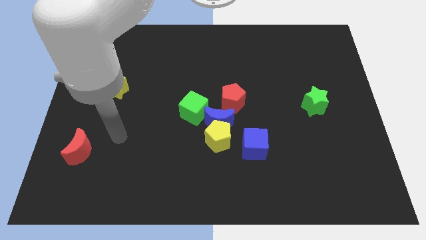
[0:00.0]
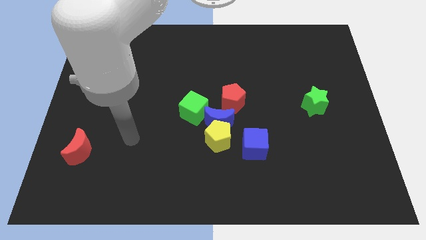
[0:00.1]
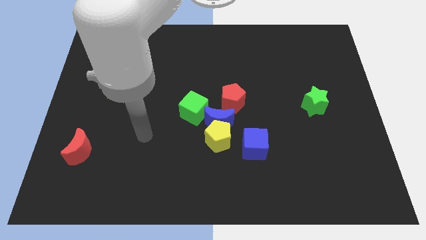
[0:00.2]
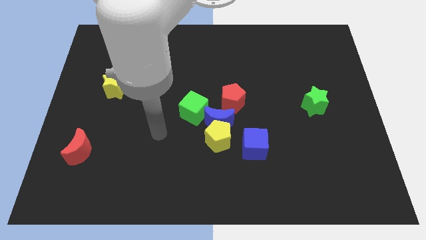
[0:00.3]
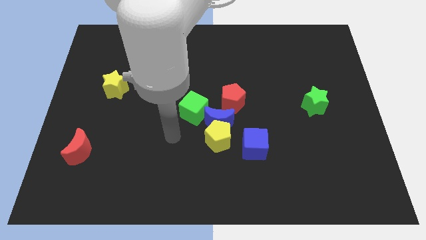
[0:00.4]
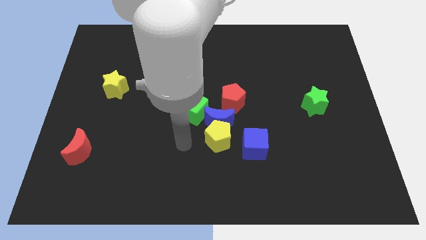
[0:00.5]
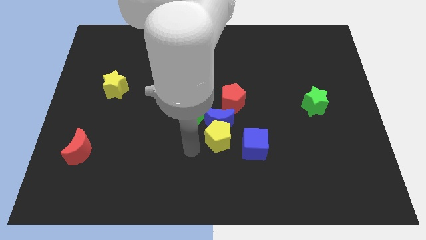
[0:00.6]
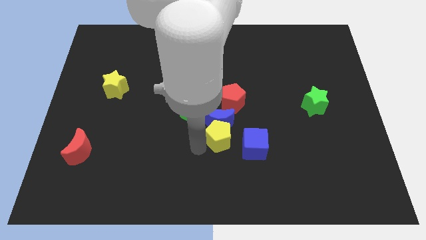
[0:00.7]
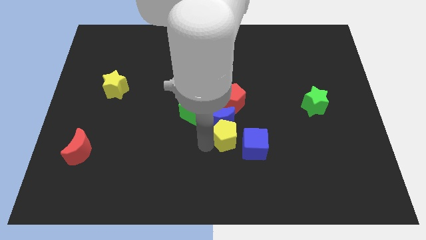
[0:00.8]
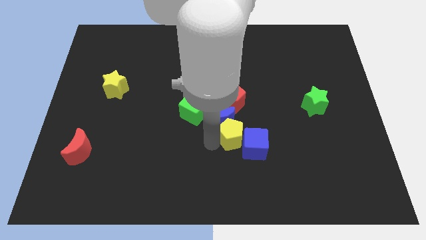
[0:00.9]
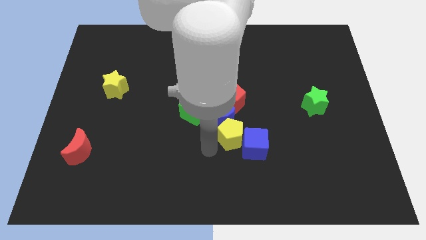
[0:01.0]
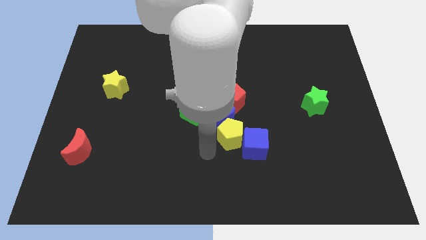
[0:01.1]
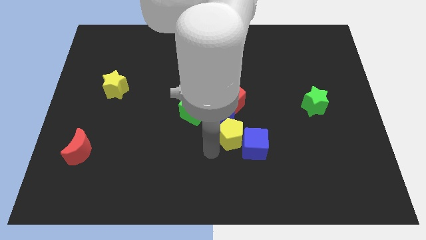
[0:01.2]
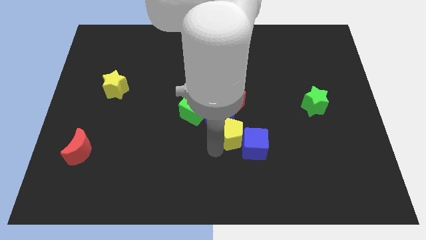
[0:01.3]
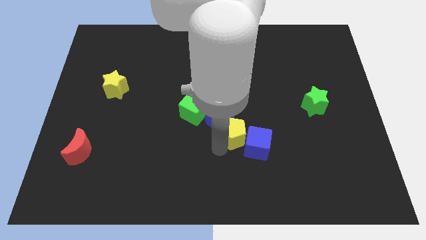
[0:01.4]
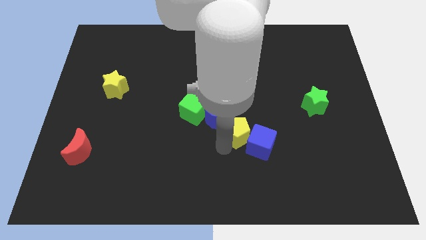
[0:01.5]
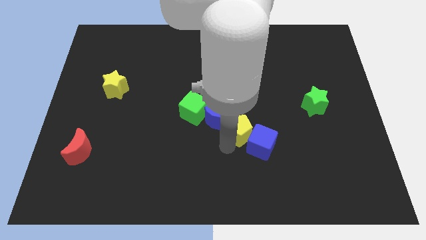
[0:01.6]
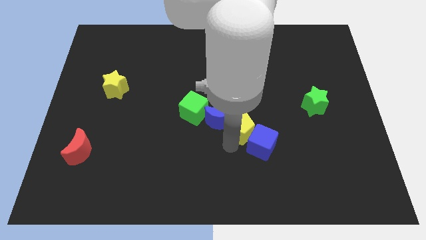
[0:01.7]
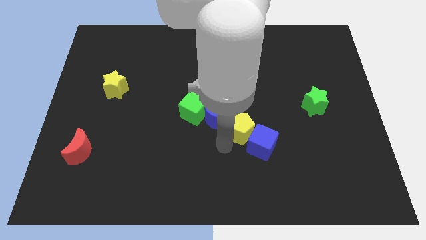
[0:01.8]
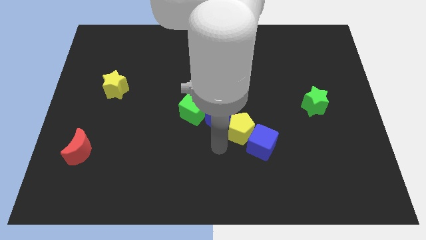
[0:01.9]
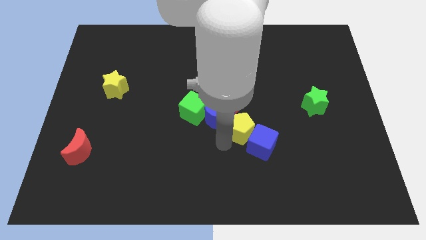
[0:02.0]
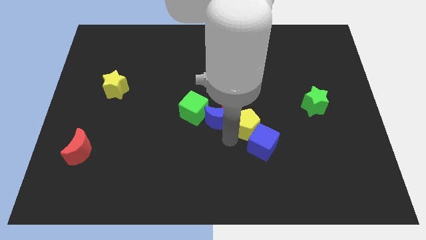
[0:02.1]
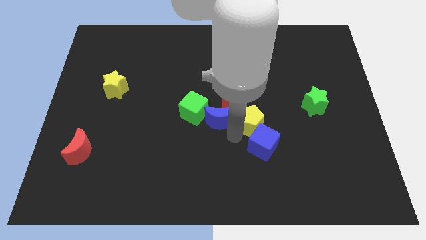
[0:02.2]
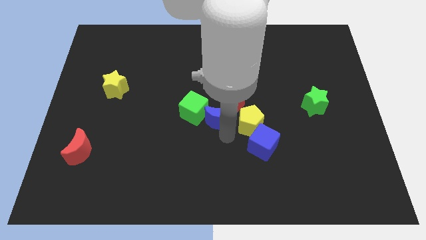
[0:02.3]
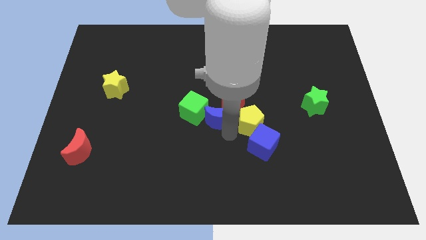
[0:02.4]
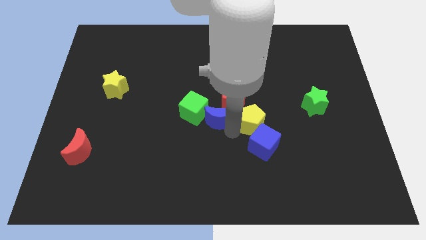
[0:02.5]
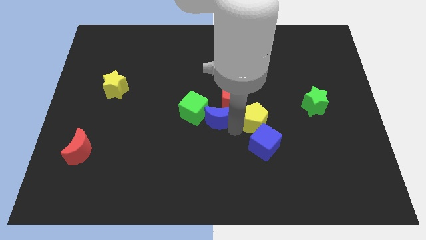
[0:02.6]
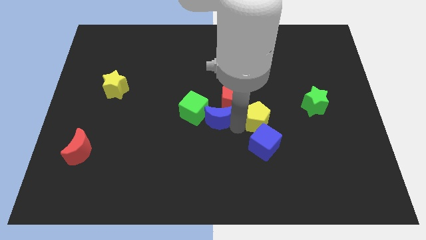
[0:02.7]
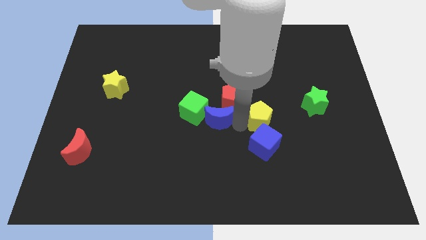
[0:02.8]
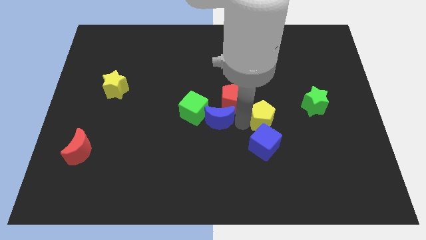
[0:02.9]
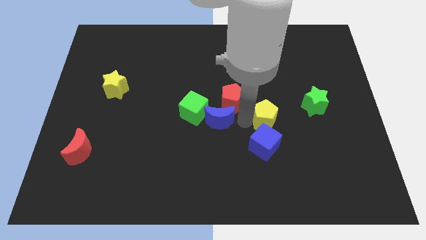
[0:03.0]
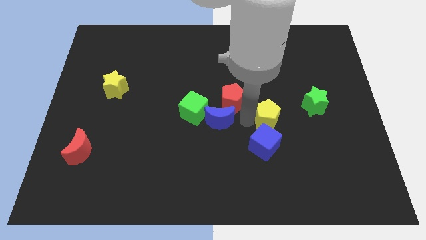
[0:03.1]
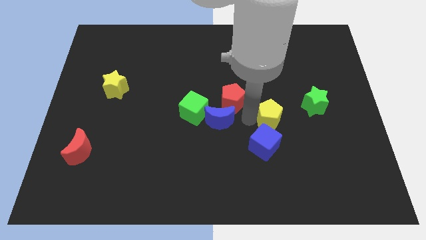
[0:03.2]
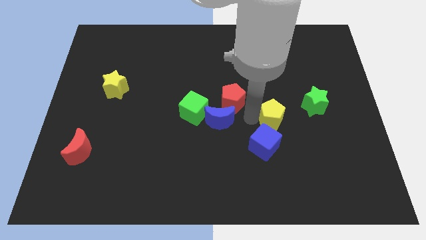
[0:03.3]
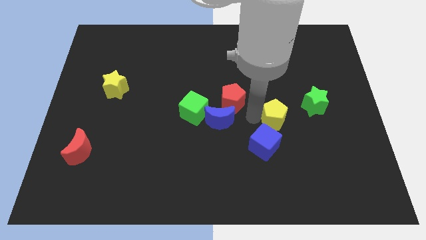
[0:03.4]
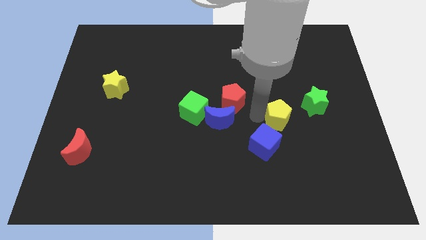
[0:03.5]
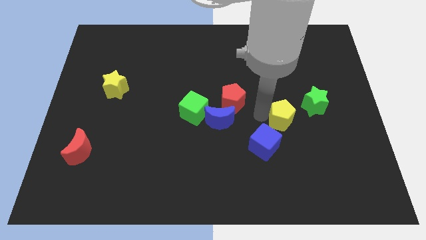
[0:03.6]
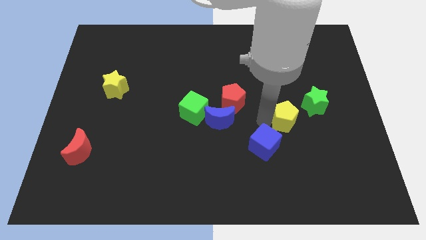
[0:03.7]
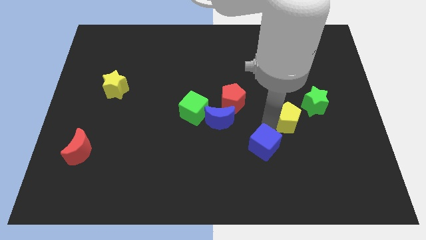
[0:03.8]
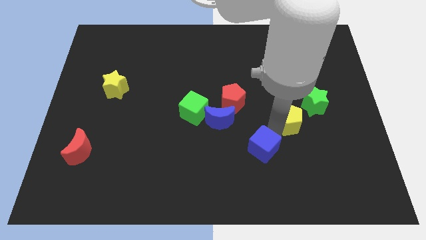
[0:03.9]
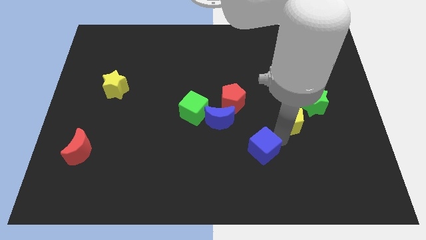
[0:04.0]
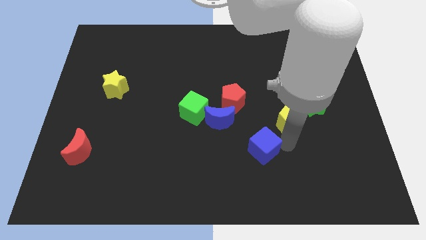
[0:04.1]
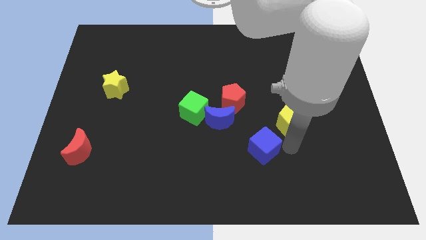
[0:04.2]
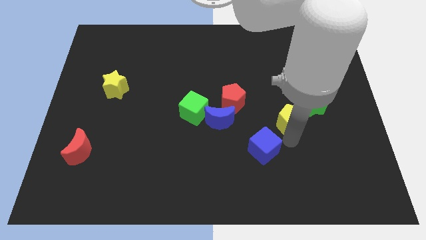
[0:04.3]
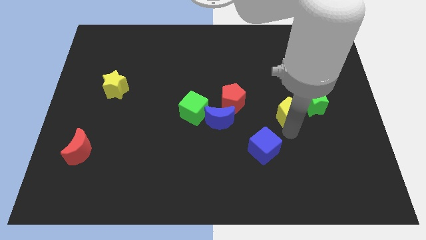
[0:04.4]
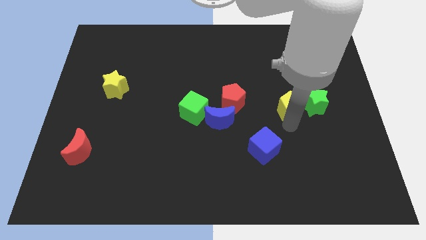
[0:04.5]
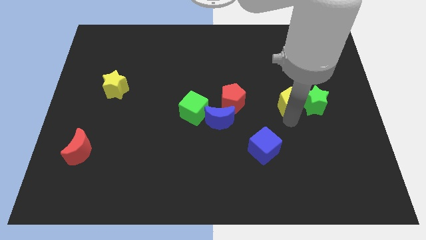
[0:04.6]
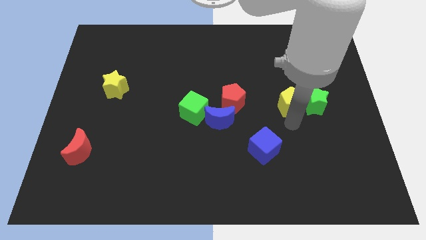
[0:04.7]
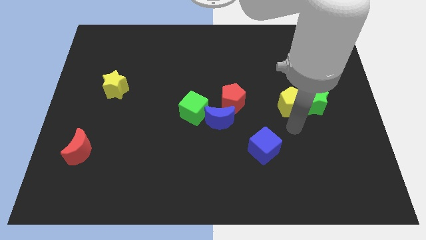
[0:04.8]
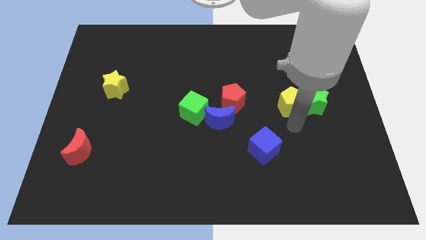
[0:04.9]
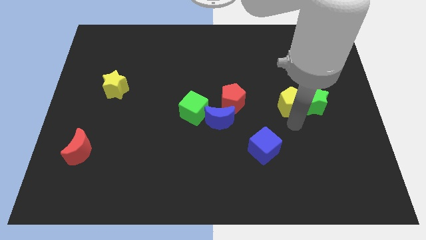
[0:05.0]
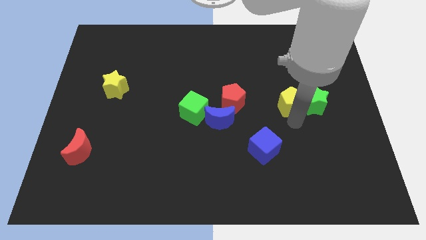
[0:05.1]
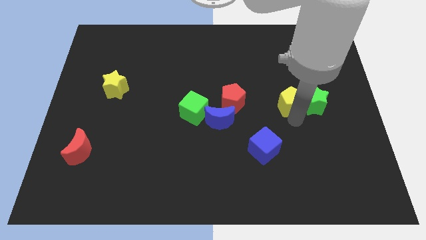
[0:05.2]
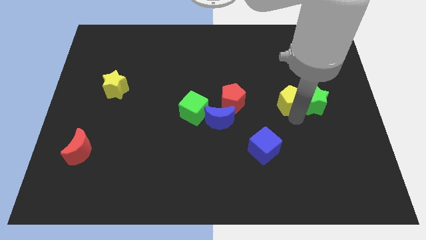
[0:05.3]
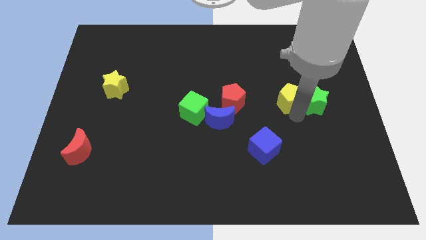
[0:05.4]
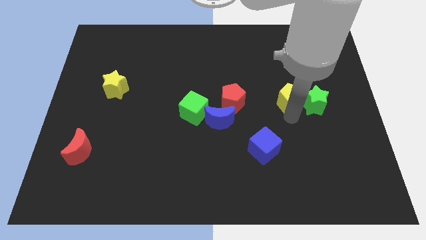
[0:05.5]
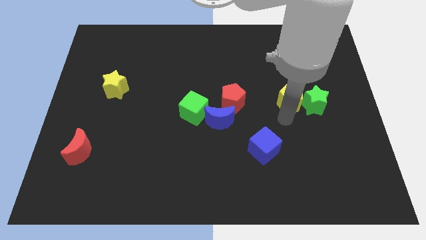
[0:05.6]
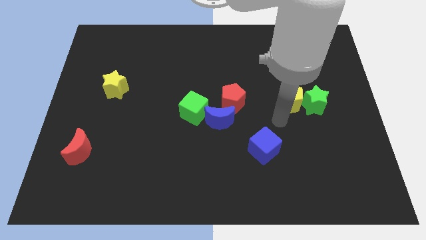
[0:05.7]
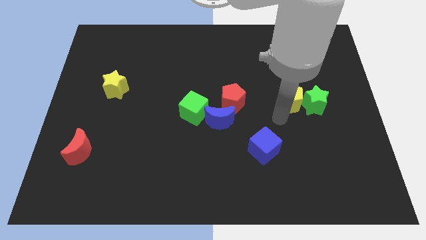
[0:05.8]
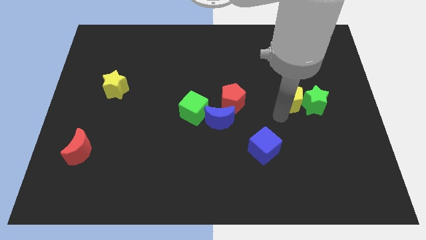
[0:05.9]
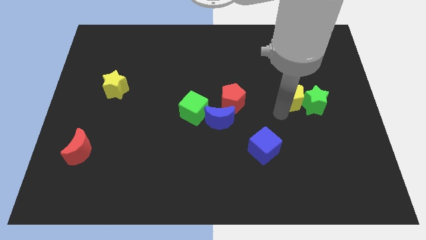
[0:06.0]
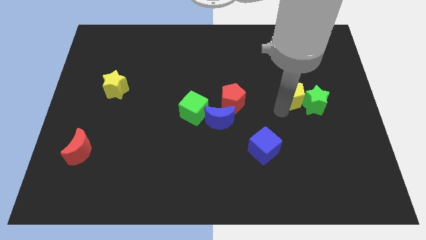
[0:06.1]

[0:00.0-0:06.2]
push the yellow pentagon up and to the right

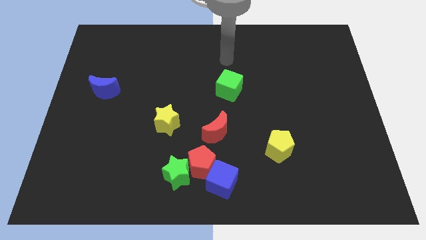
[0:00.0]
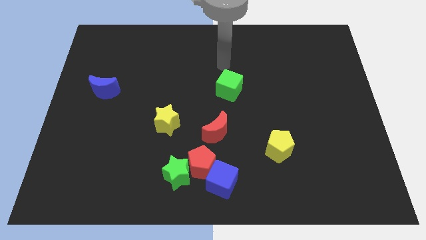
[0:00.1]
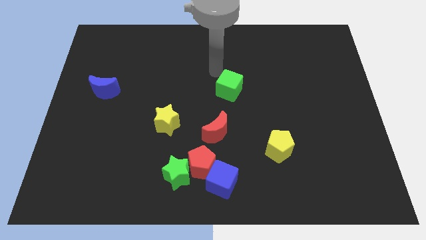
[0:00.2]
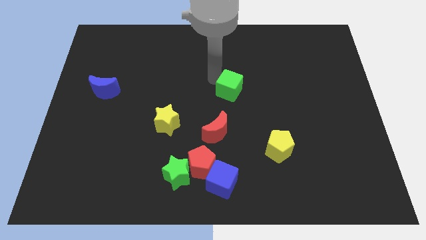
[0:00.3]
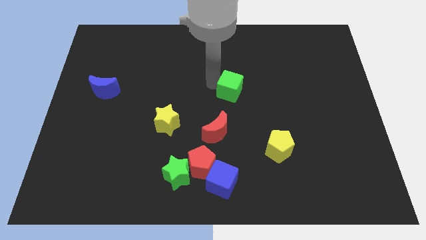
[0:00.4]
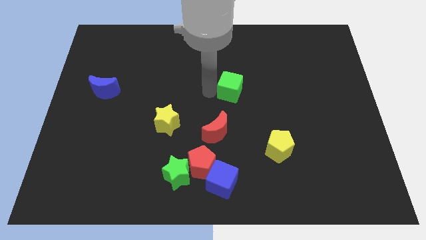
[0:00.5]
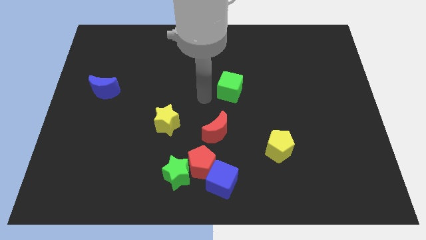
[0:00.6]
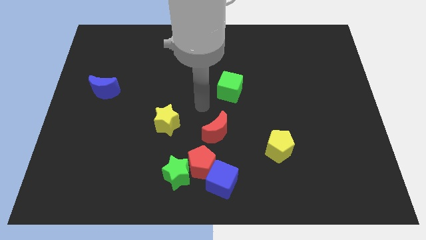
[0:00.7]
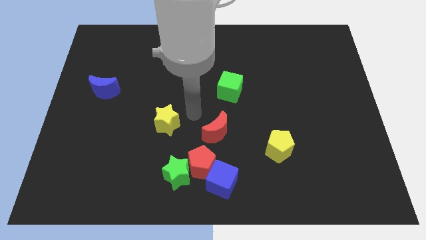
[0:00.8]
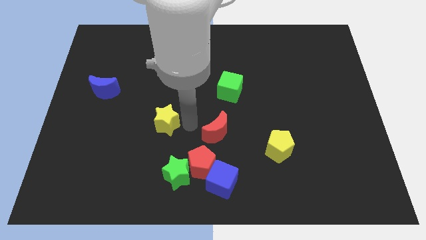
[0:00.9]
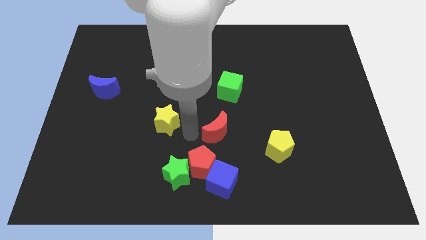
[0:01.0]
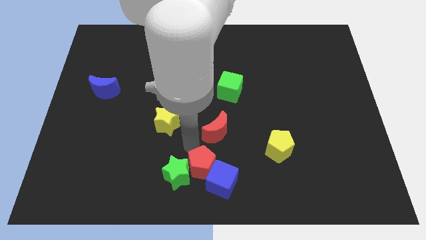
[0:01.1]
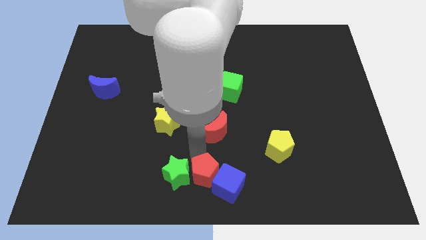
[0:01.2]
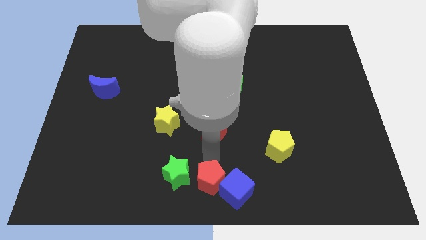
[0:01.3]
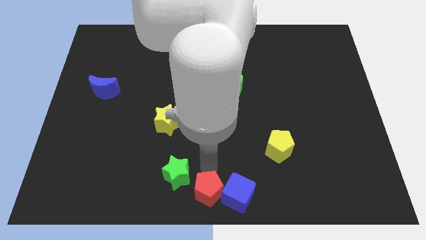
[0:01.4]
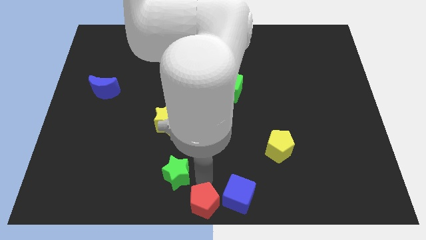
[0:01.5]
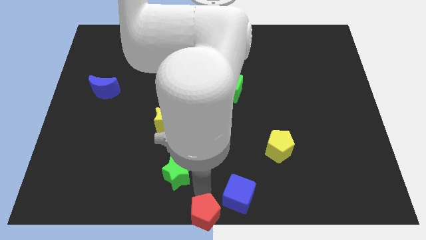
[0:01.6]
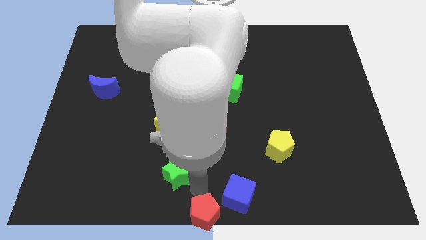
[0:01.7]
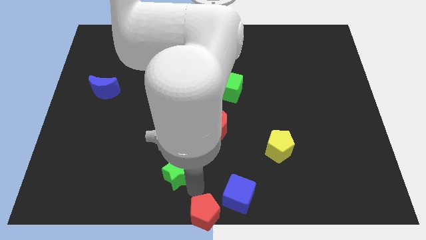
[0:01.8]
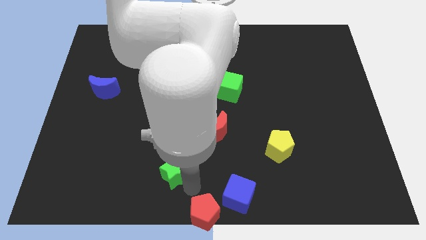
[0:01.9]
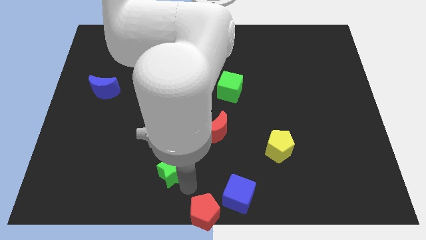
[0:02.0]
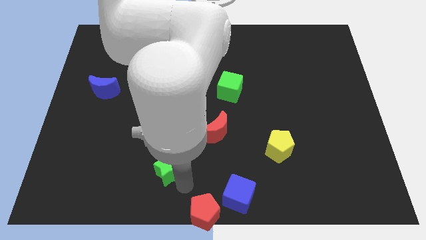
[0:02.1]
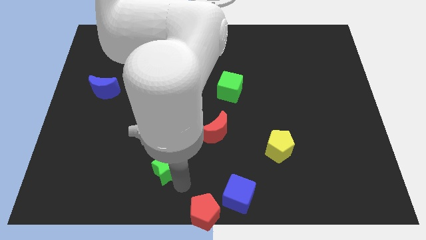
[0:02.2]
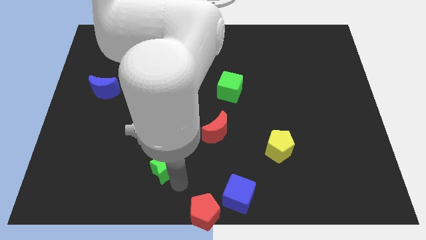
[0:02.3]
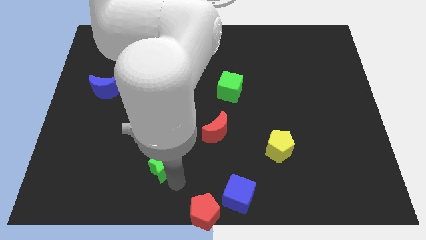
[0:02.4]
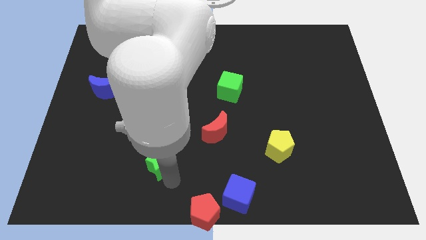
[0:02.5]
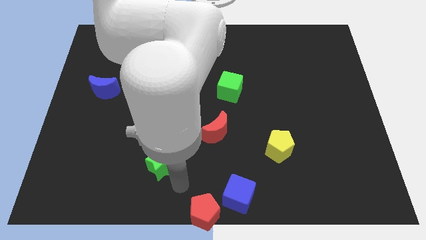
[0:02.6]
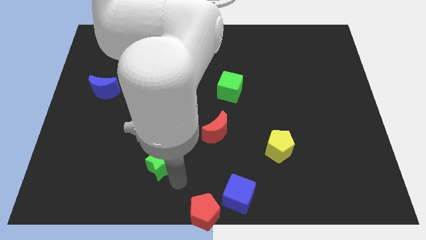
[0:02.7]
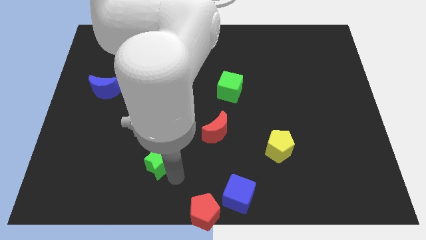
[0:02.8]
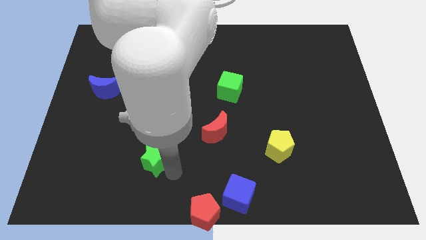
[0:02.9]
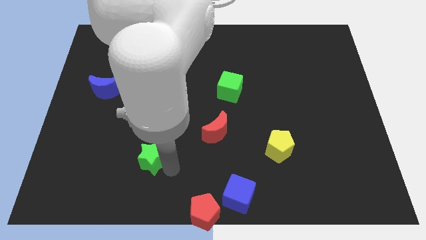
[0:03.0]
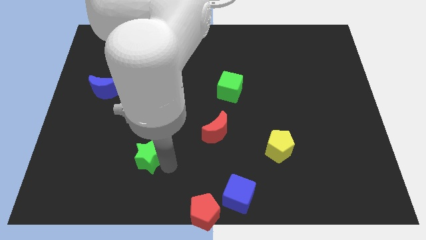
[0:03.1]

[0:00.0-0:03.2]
slide the green star upwards and to the left diagonally slightly
